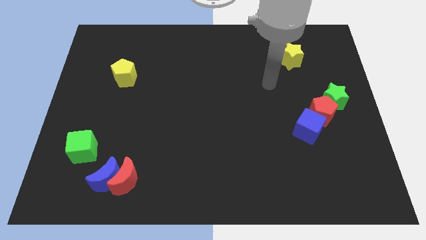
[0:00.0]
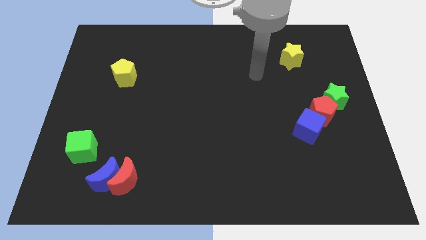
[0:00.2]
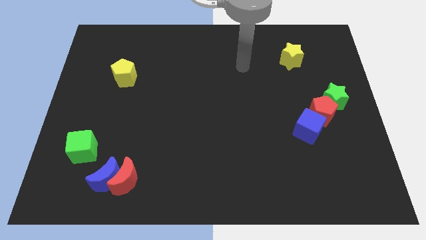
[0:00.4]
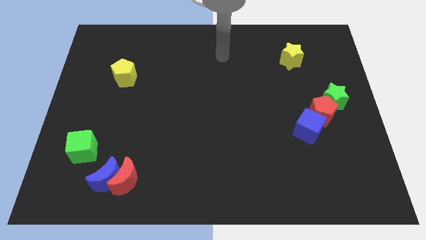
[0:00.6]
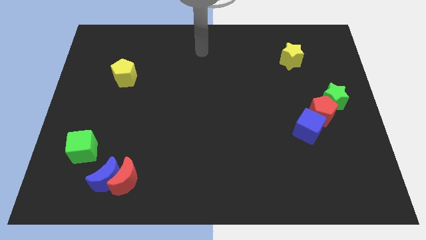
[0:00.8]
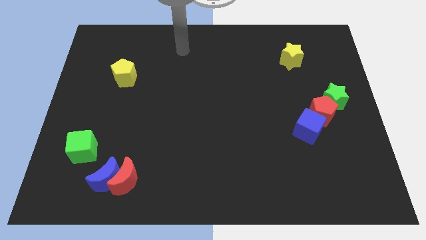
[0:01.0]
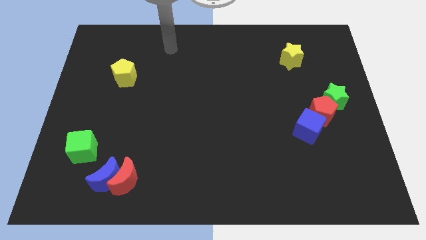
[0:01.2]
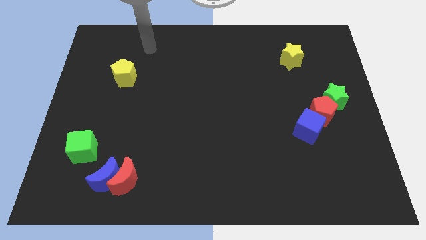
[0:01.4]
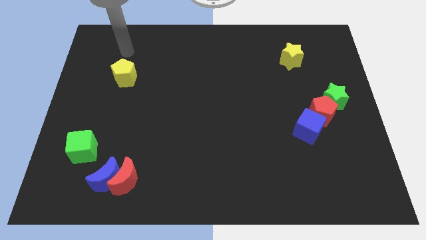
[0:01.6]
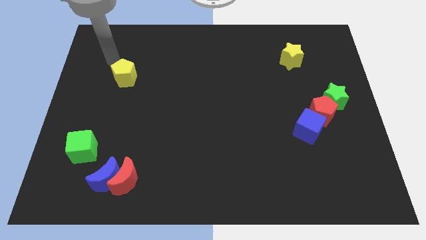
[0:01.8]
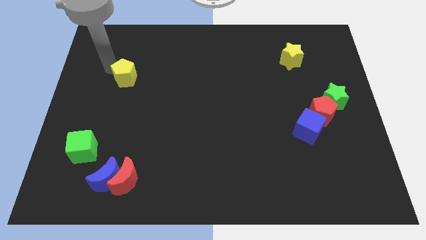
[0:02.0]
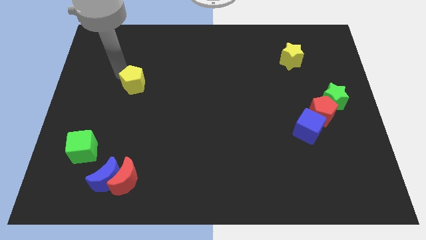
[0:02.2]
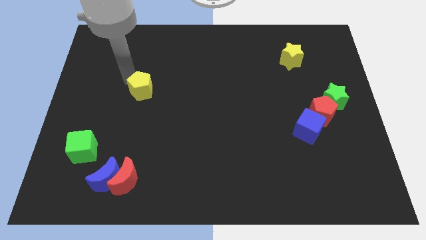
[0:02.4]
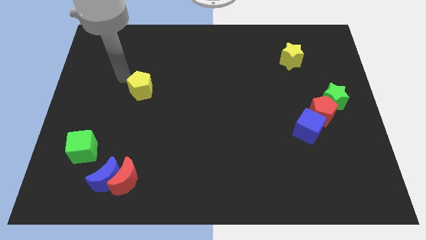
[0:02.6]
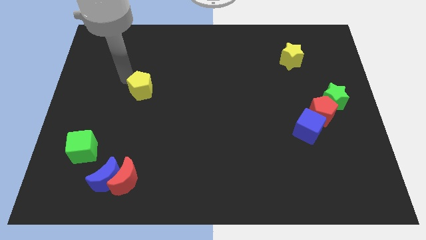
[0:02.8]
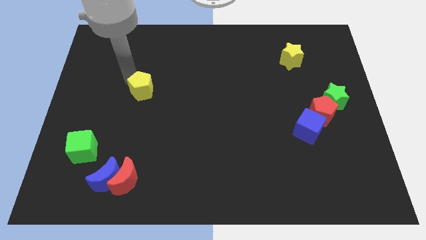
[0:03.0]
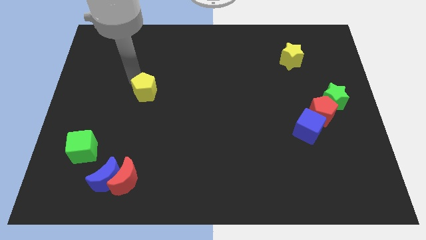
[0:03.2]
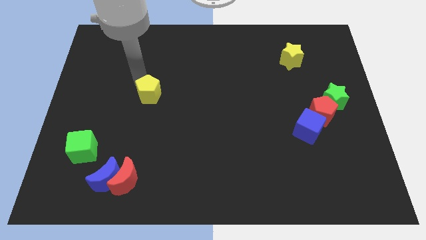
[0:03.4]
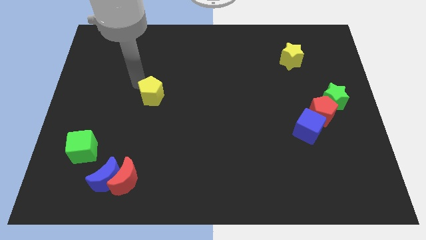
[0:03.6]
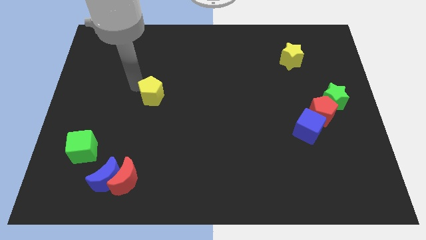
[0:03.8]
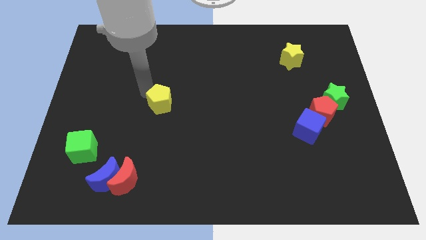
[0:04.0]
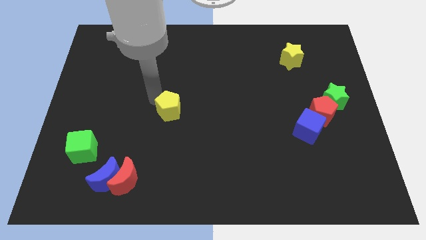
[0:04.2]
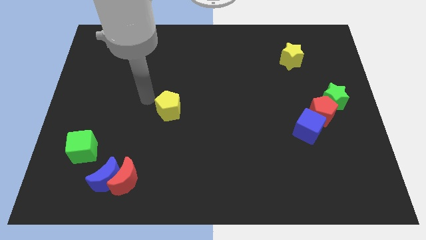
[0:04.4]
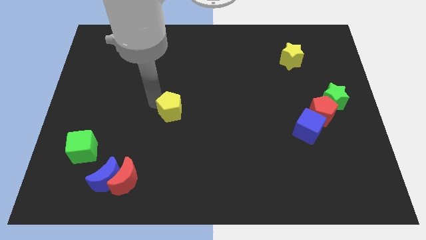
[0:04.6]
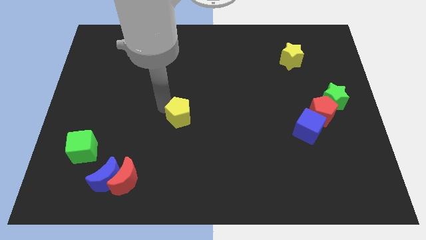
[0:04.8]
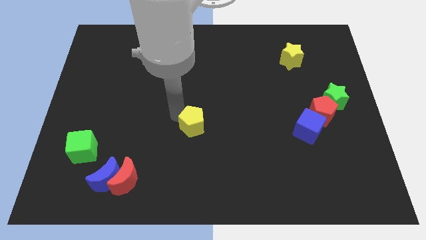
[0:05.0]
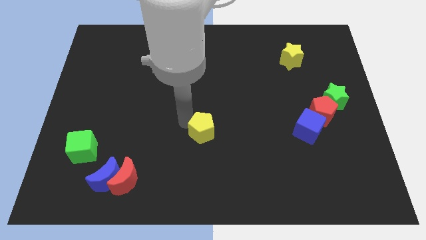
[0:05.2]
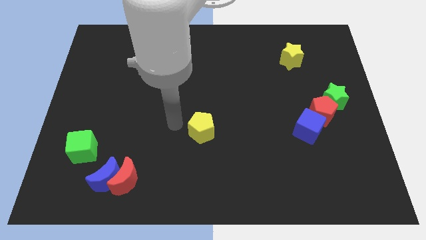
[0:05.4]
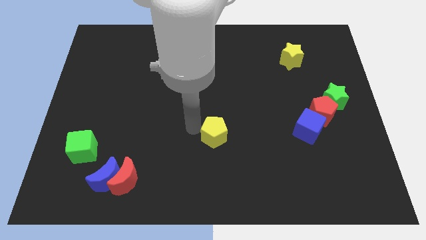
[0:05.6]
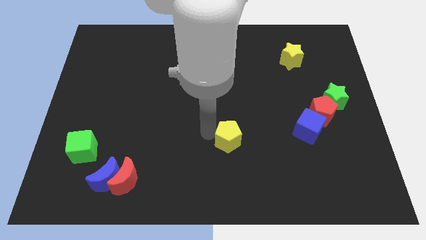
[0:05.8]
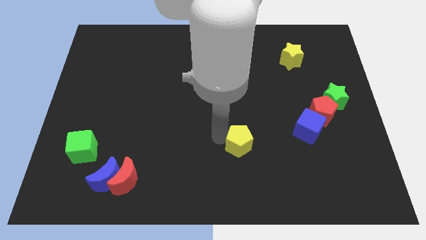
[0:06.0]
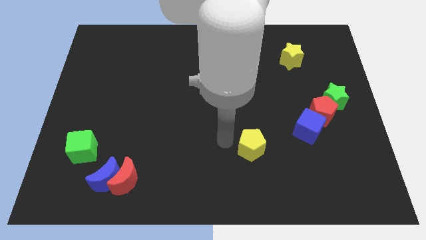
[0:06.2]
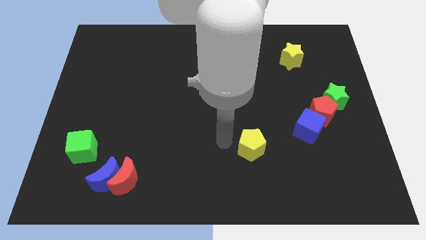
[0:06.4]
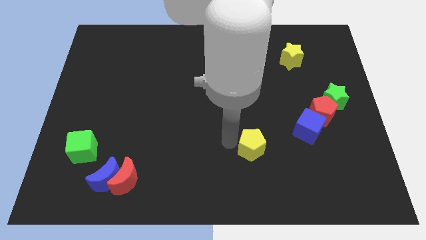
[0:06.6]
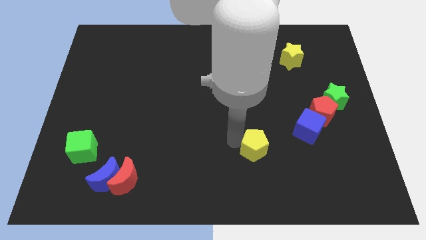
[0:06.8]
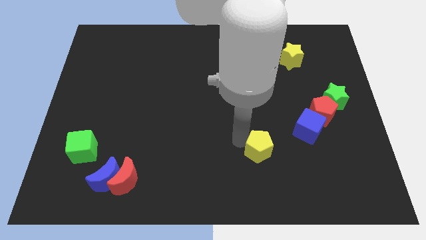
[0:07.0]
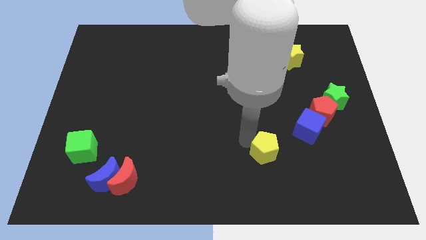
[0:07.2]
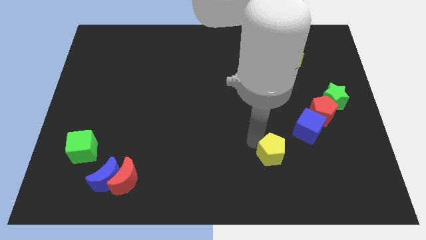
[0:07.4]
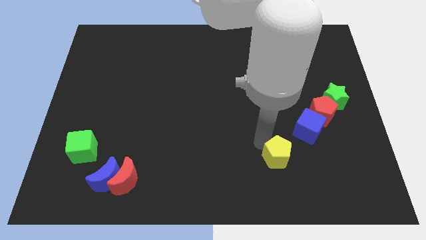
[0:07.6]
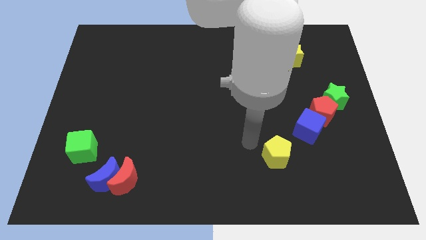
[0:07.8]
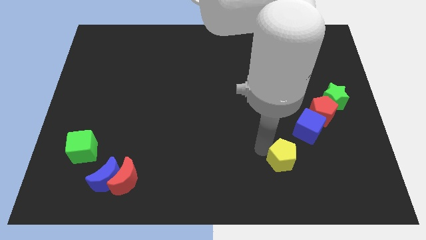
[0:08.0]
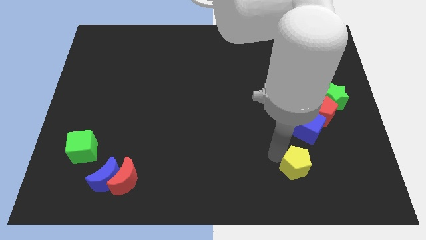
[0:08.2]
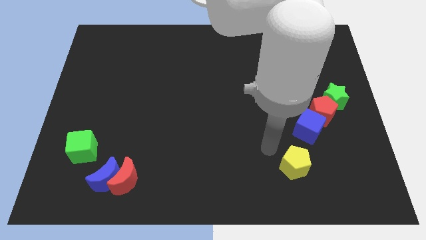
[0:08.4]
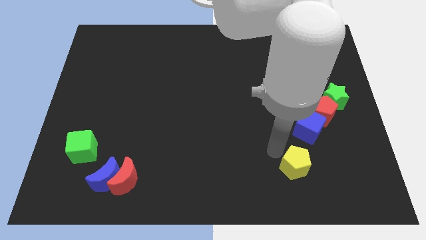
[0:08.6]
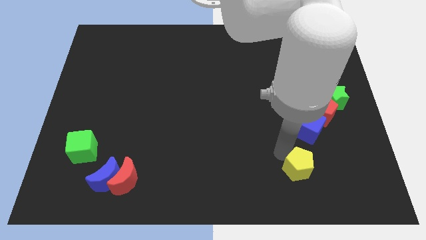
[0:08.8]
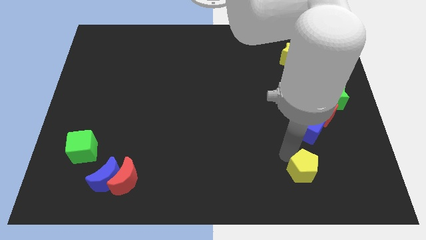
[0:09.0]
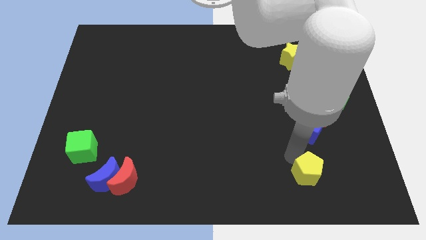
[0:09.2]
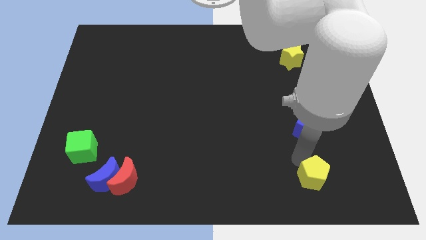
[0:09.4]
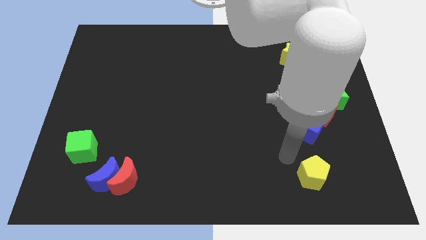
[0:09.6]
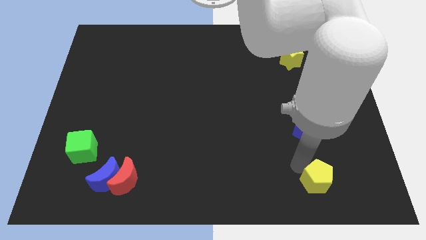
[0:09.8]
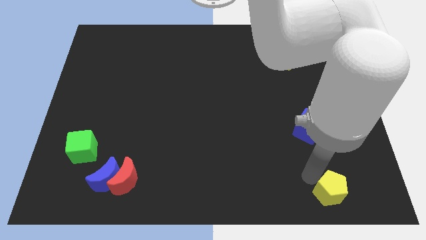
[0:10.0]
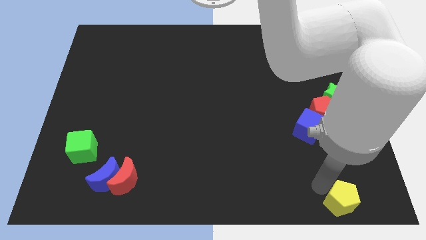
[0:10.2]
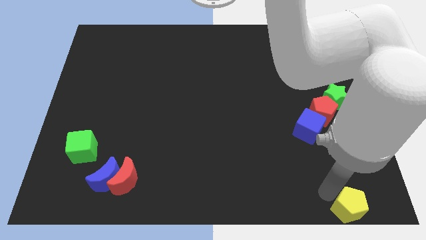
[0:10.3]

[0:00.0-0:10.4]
push the yellow pentagon to the lower right corner

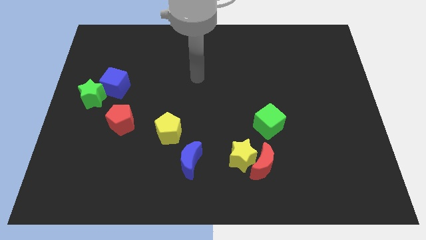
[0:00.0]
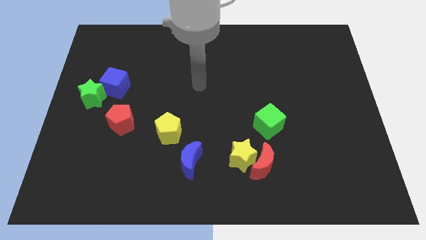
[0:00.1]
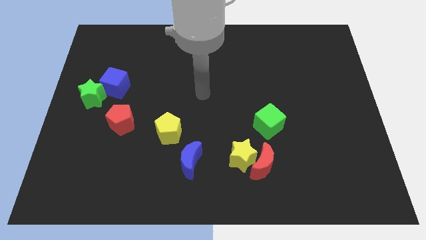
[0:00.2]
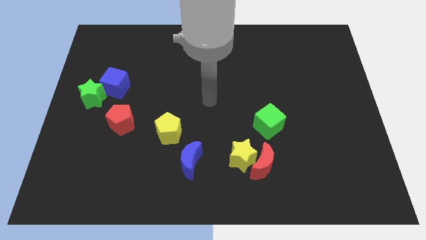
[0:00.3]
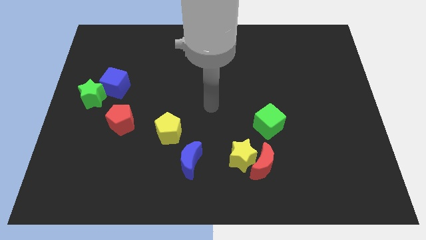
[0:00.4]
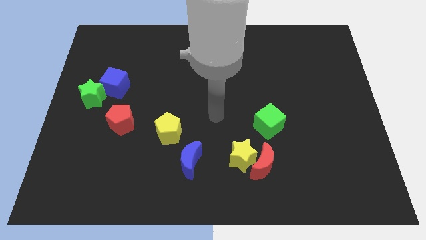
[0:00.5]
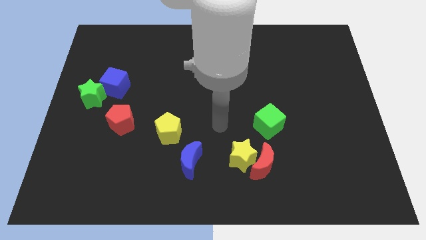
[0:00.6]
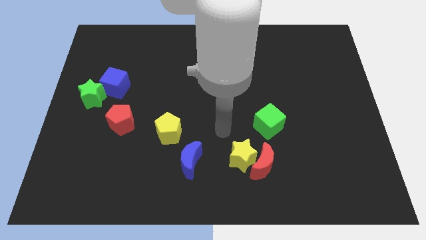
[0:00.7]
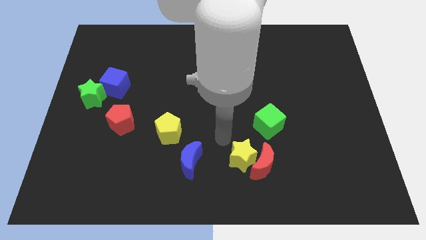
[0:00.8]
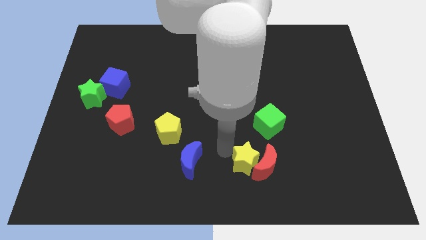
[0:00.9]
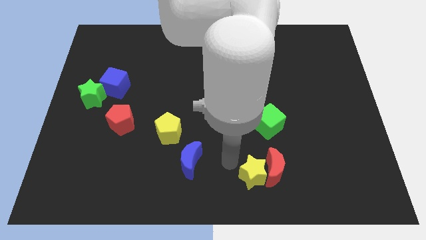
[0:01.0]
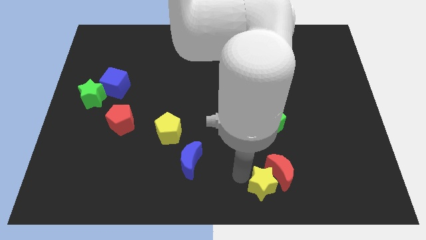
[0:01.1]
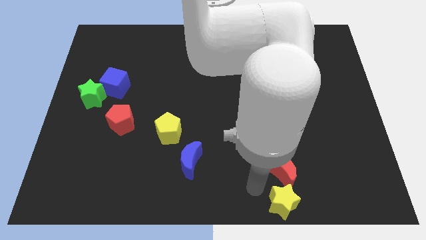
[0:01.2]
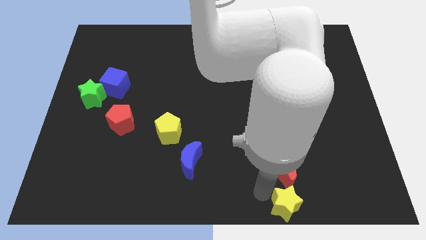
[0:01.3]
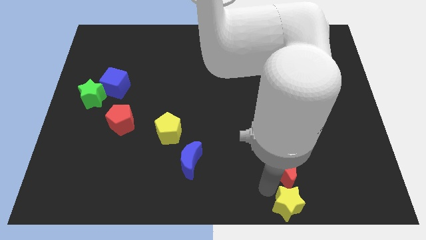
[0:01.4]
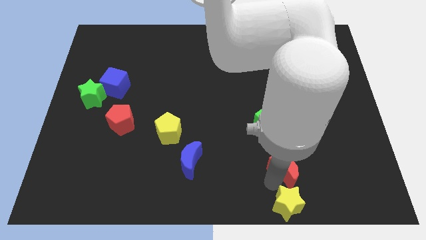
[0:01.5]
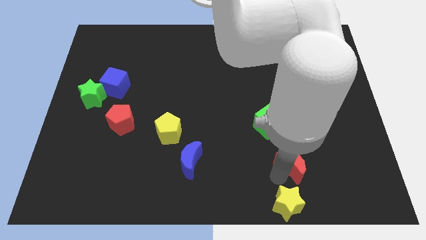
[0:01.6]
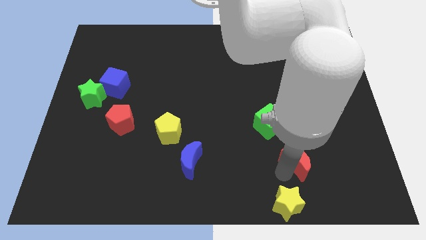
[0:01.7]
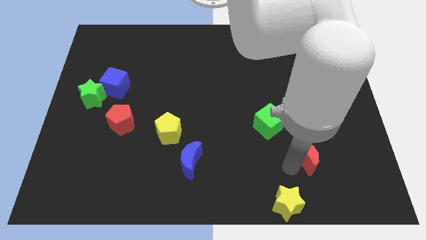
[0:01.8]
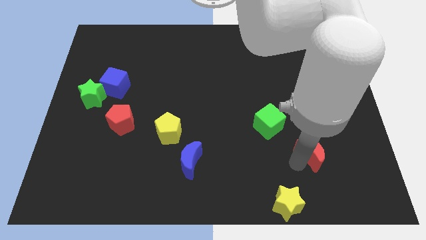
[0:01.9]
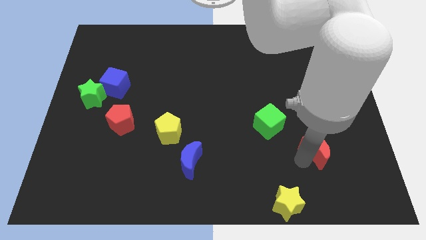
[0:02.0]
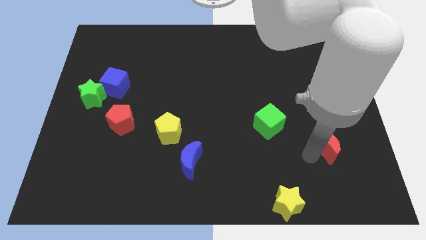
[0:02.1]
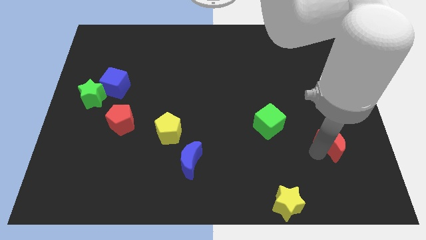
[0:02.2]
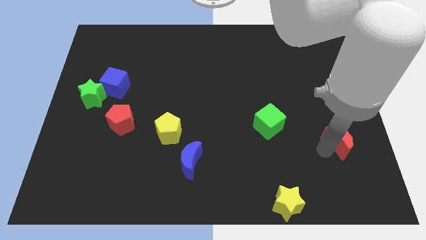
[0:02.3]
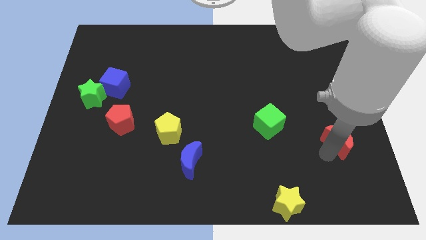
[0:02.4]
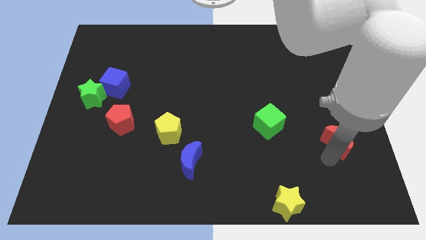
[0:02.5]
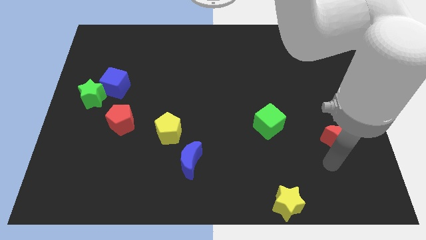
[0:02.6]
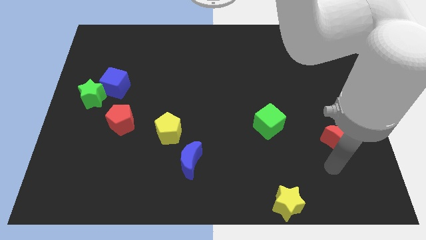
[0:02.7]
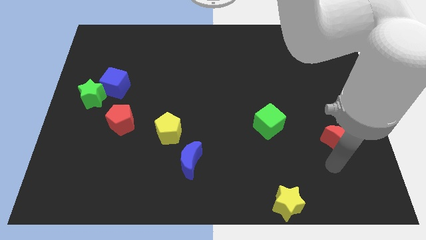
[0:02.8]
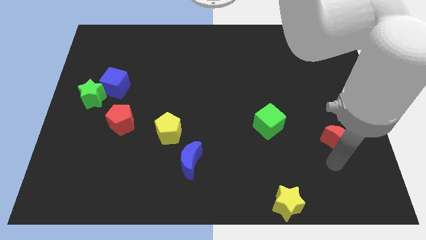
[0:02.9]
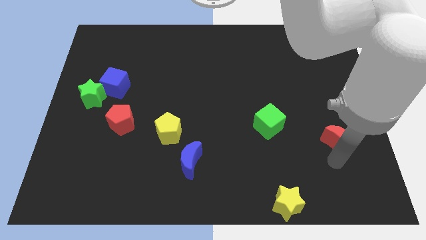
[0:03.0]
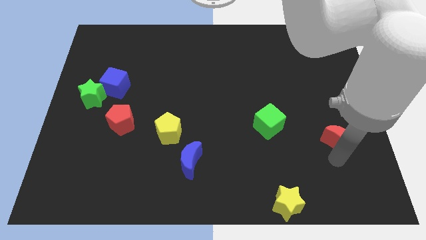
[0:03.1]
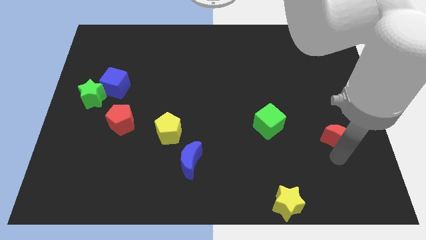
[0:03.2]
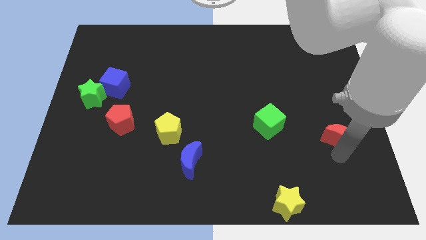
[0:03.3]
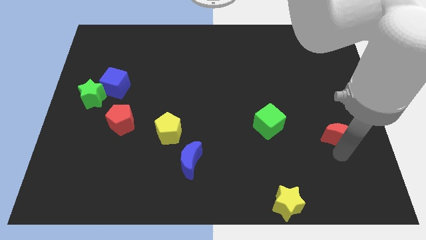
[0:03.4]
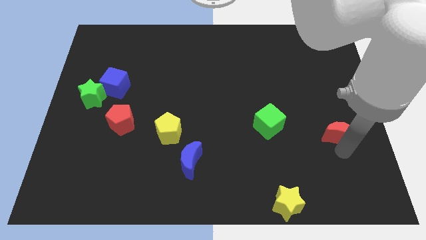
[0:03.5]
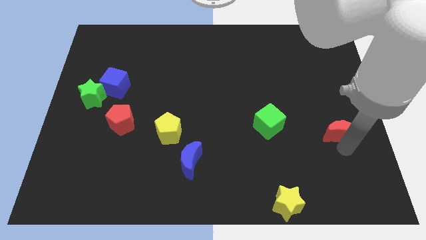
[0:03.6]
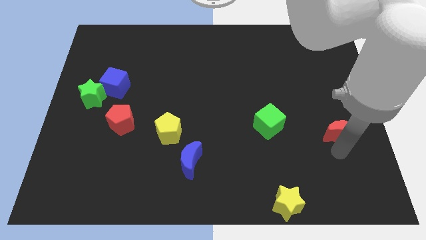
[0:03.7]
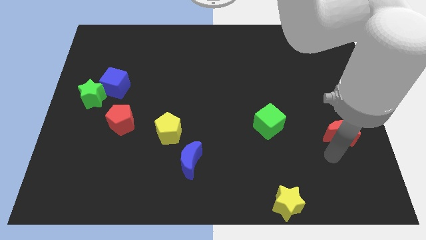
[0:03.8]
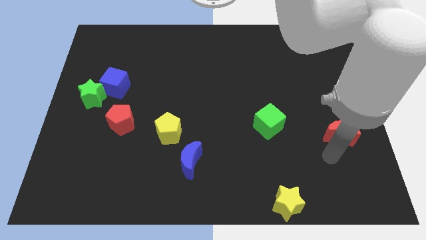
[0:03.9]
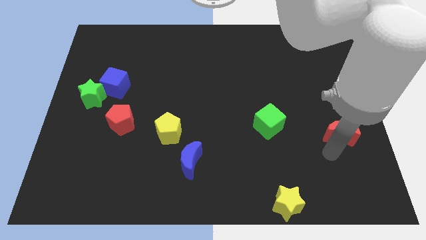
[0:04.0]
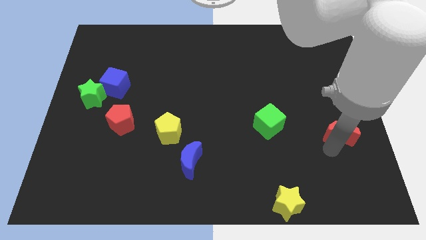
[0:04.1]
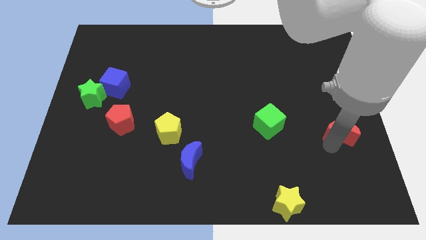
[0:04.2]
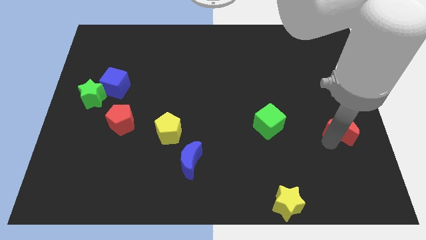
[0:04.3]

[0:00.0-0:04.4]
push the red moon to the right side of the board
